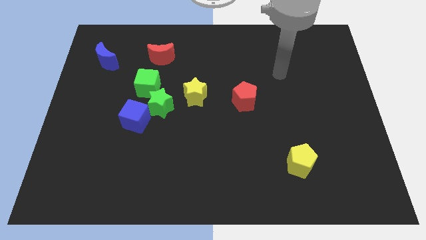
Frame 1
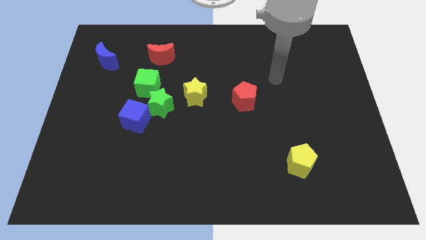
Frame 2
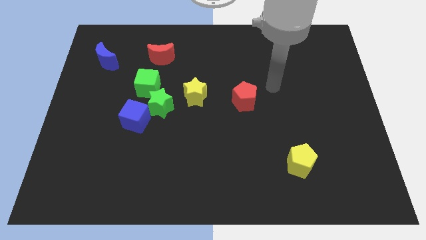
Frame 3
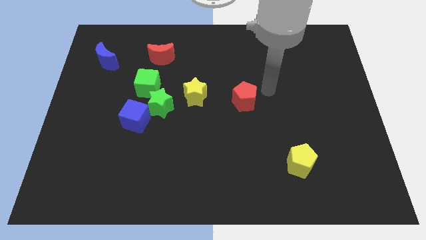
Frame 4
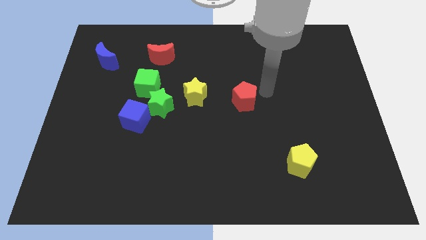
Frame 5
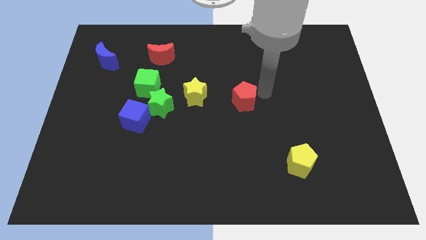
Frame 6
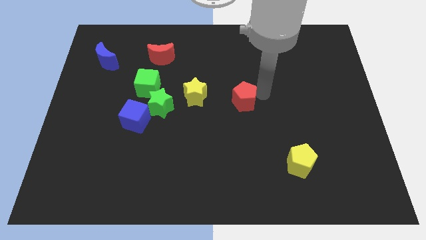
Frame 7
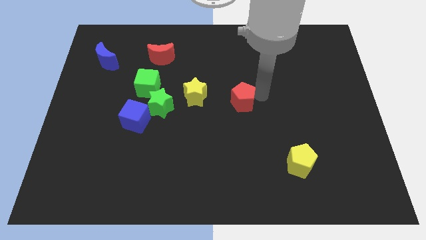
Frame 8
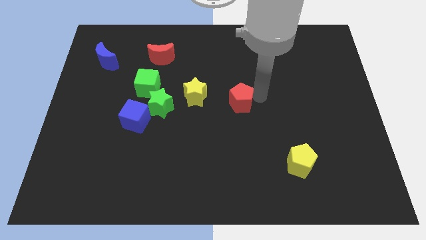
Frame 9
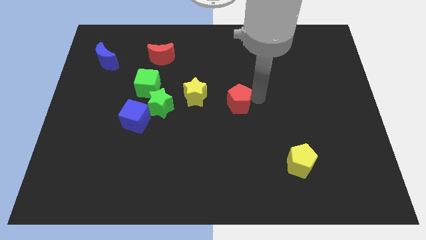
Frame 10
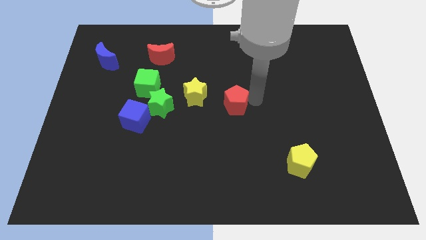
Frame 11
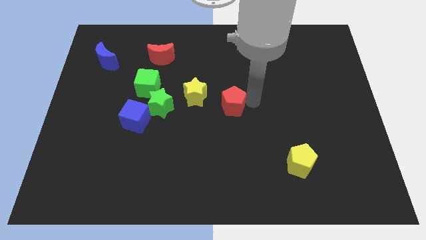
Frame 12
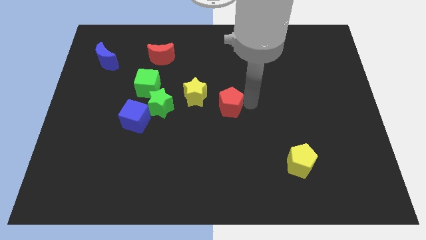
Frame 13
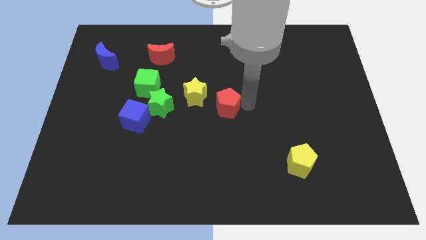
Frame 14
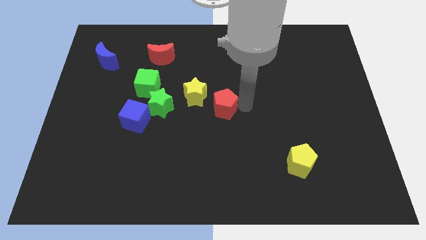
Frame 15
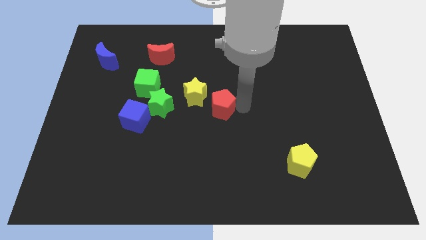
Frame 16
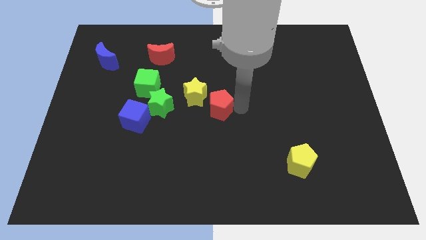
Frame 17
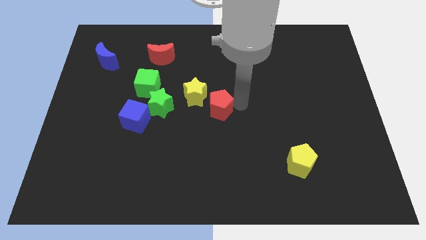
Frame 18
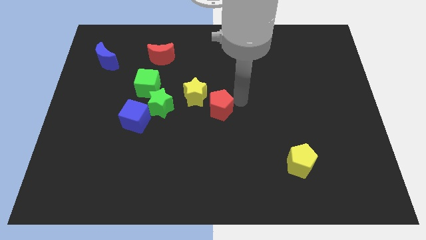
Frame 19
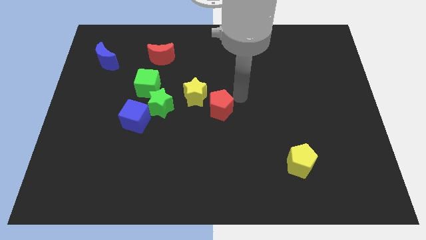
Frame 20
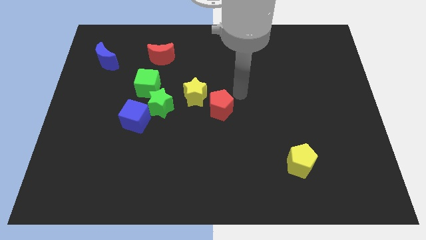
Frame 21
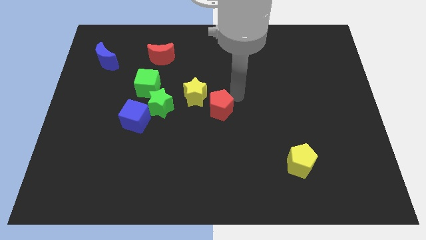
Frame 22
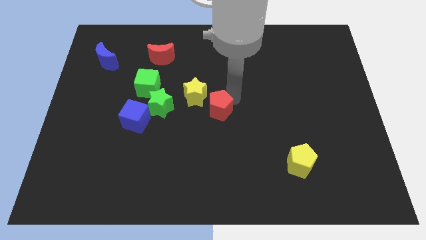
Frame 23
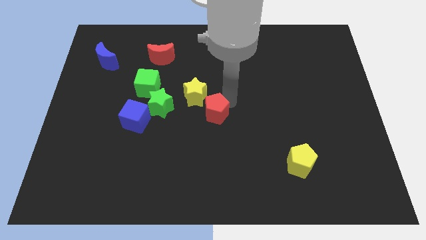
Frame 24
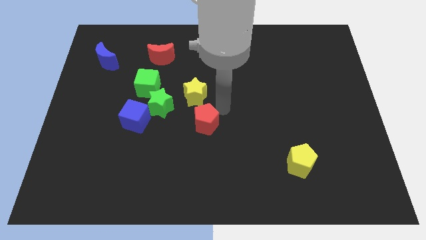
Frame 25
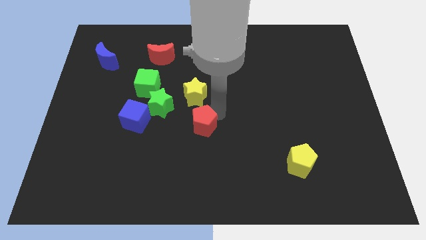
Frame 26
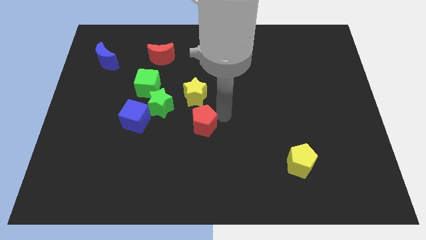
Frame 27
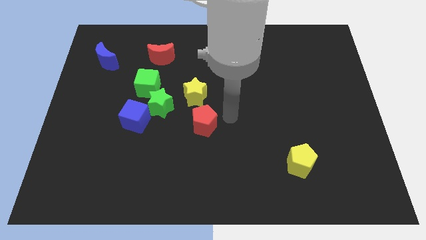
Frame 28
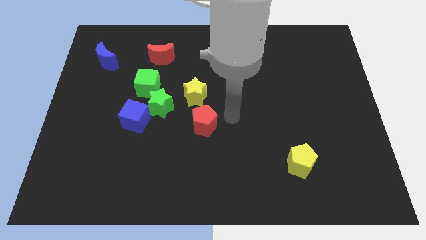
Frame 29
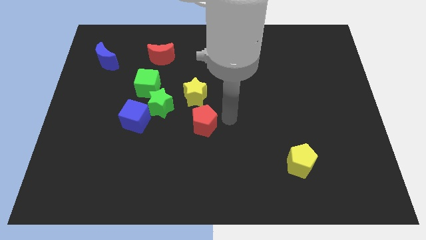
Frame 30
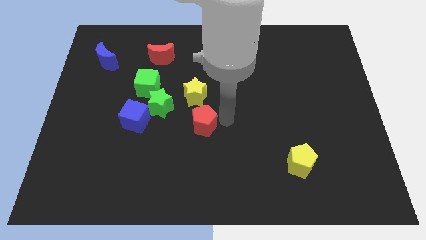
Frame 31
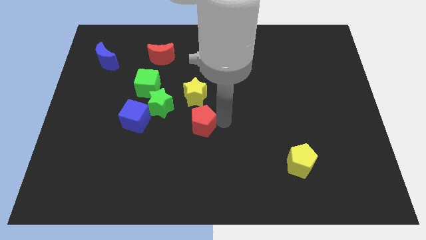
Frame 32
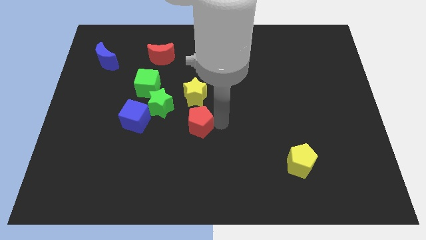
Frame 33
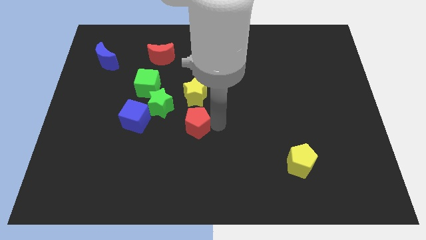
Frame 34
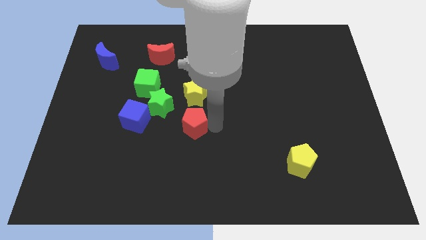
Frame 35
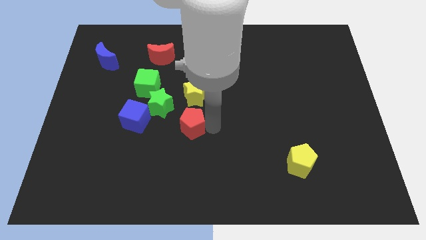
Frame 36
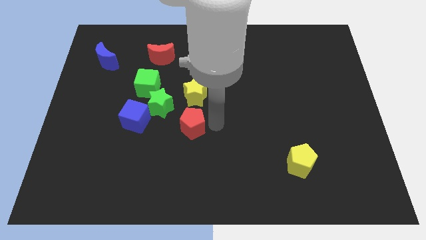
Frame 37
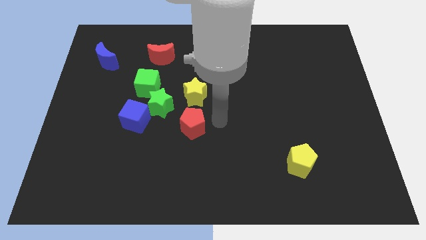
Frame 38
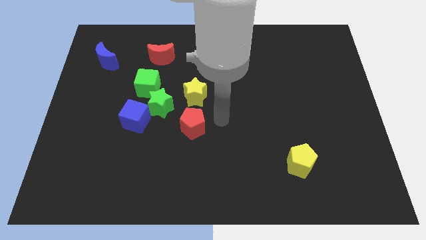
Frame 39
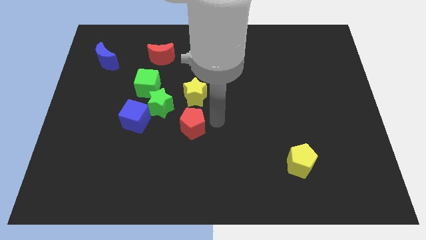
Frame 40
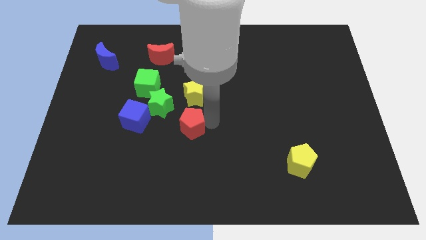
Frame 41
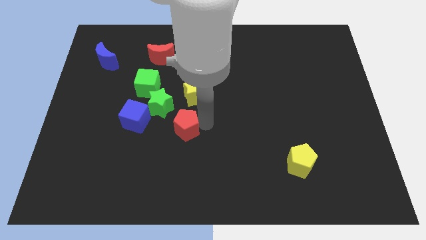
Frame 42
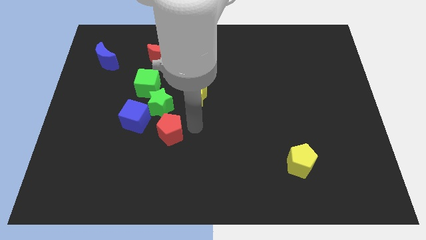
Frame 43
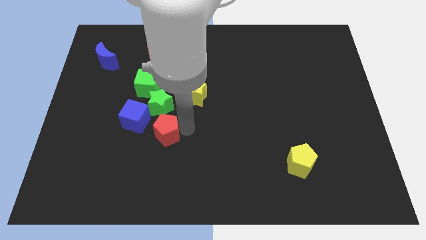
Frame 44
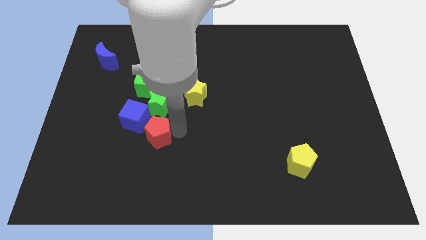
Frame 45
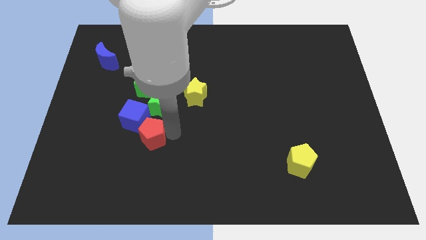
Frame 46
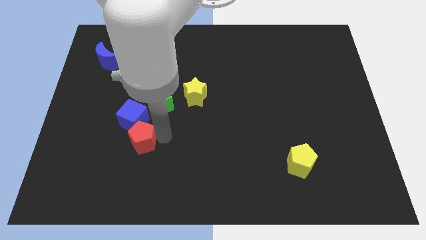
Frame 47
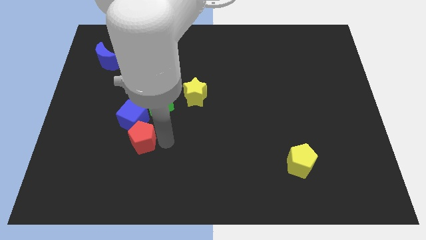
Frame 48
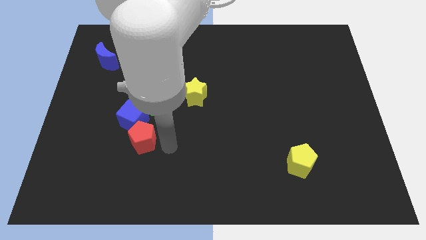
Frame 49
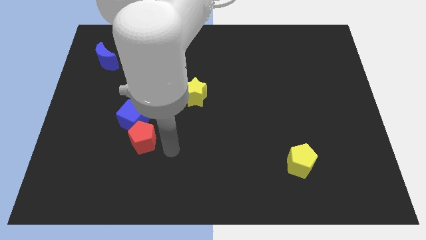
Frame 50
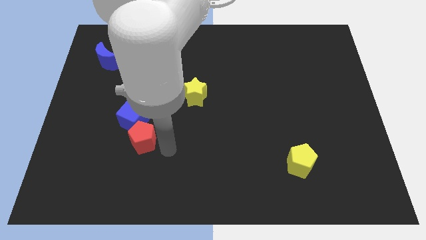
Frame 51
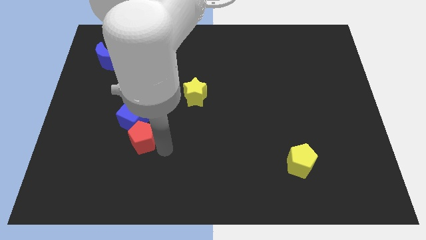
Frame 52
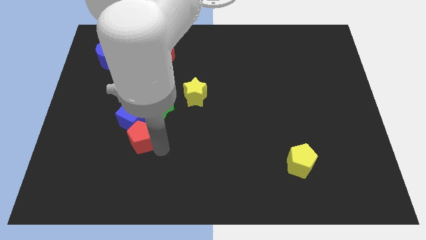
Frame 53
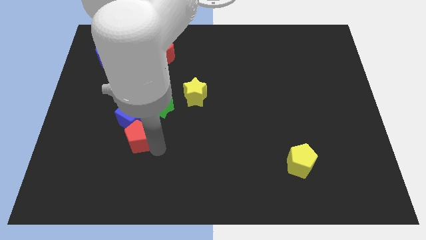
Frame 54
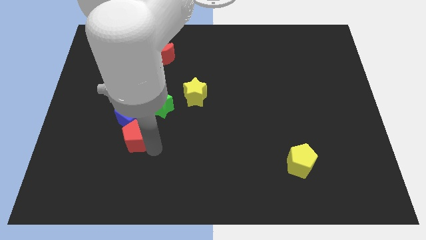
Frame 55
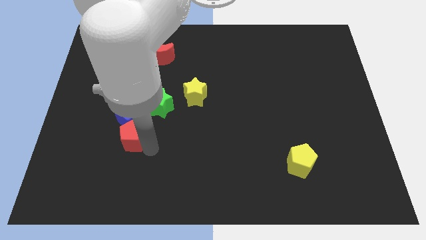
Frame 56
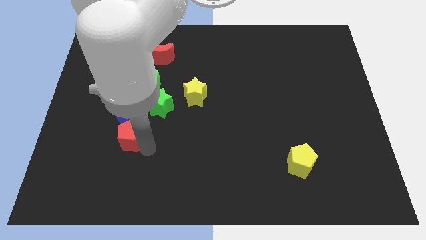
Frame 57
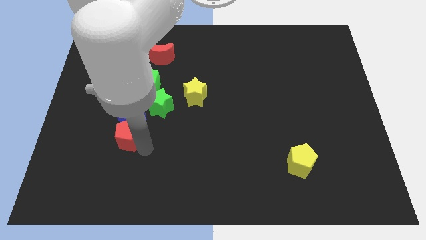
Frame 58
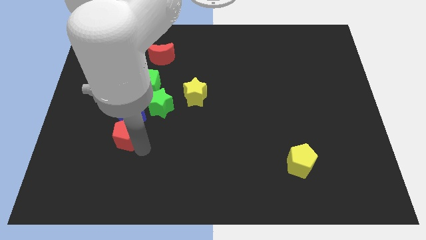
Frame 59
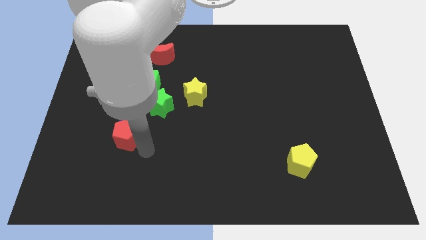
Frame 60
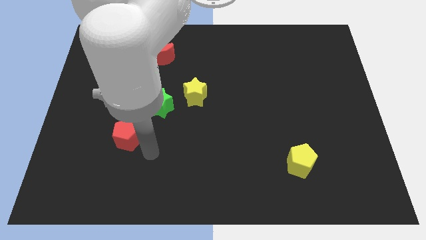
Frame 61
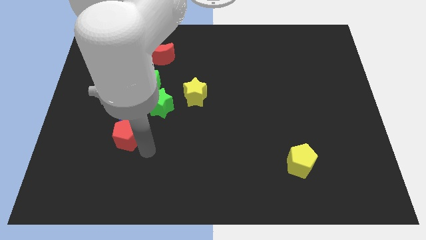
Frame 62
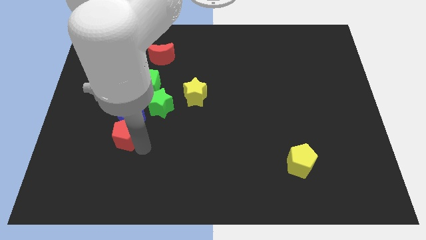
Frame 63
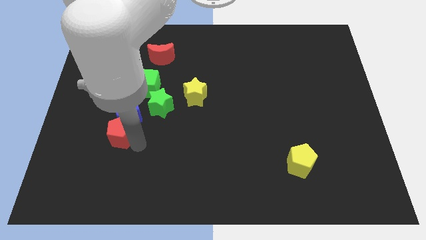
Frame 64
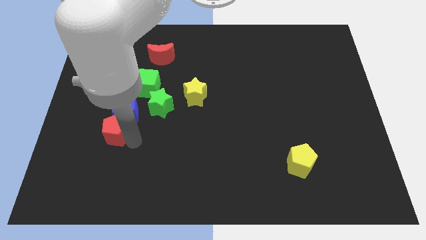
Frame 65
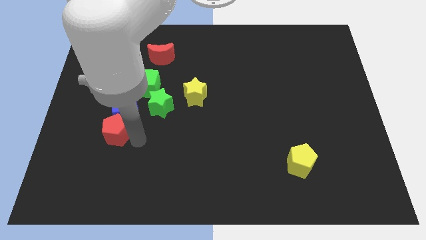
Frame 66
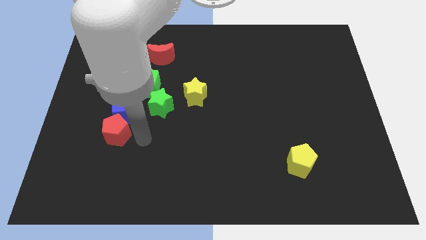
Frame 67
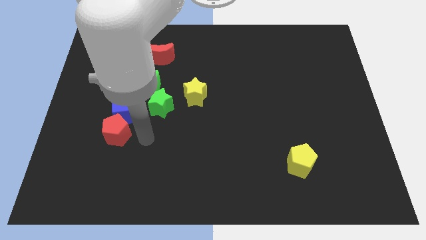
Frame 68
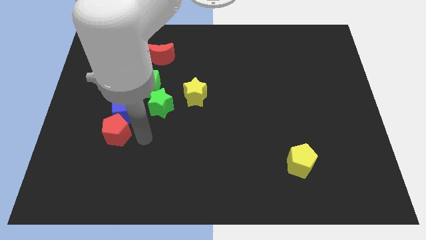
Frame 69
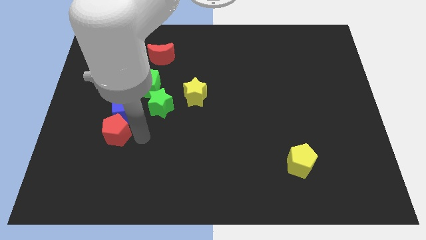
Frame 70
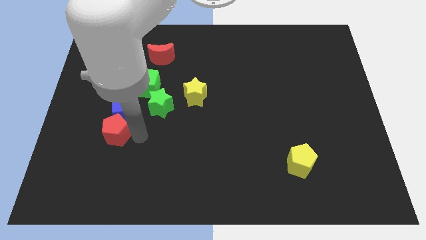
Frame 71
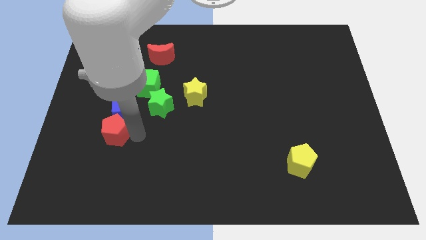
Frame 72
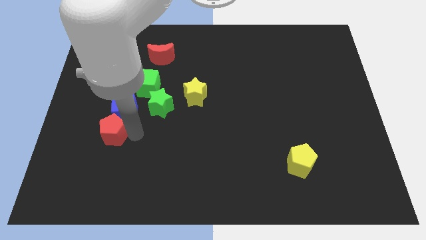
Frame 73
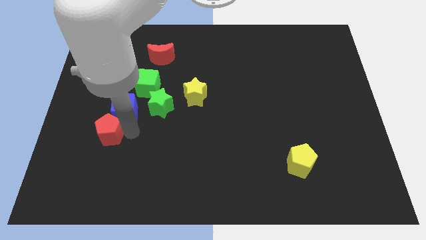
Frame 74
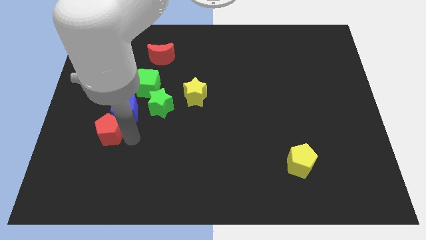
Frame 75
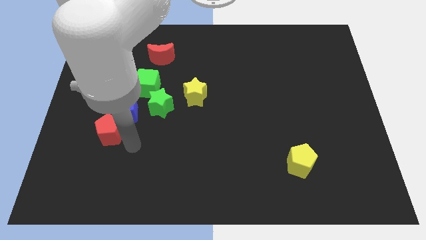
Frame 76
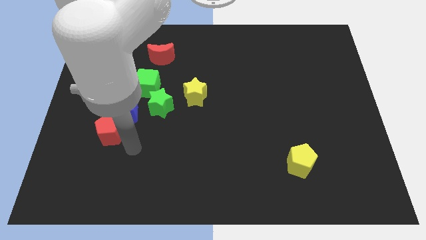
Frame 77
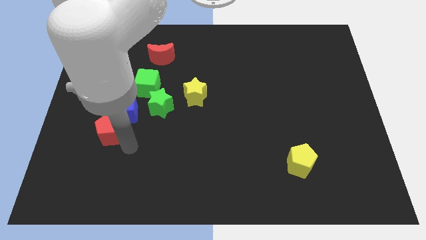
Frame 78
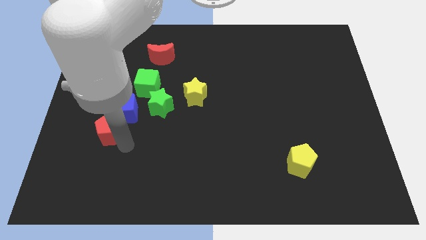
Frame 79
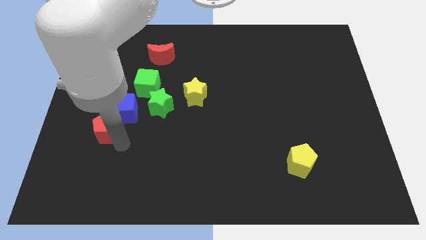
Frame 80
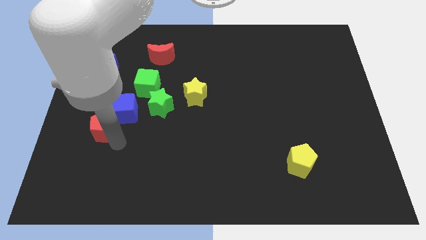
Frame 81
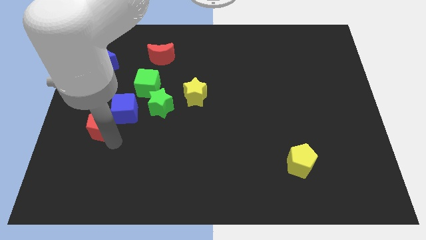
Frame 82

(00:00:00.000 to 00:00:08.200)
put the red pentagon left of the blue cube
